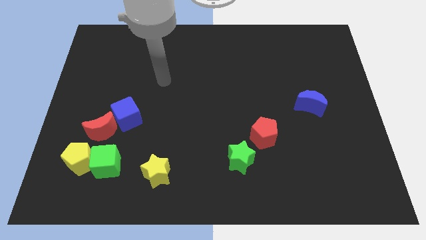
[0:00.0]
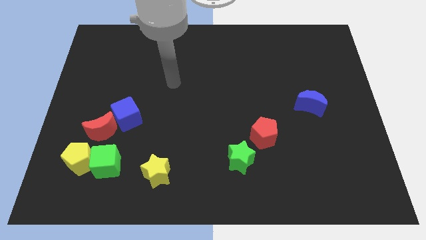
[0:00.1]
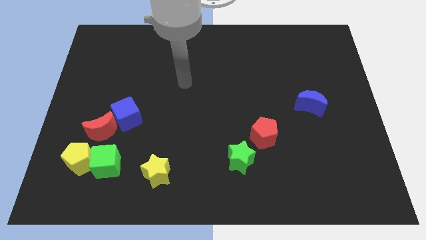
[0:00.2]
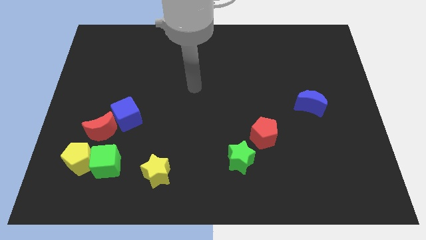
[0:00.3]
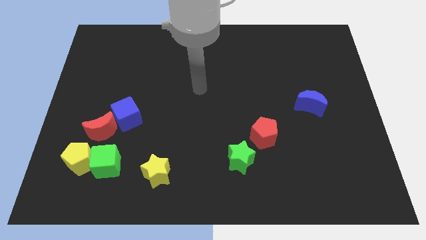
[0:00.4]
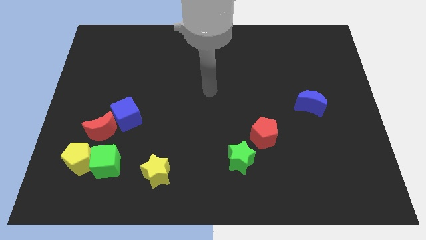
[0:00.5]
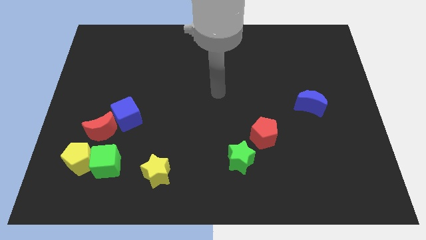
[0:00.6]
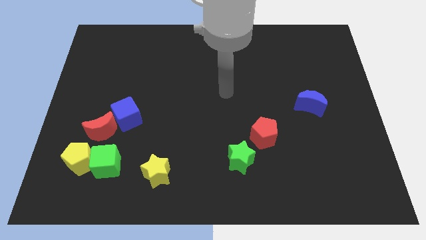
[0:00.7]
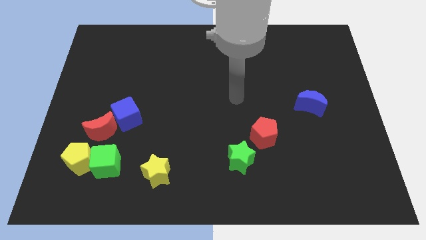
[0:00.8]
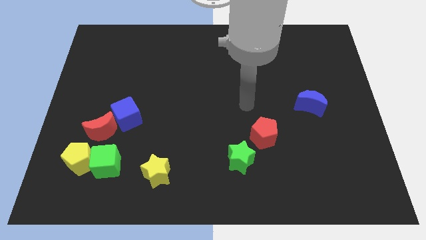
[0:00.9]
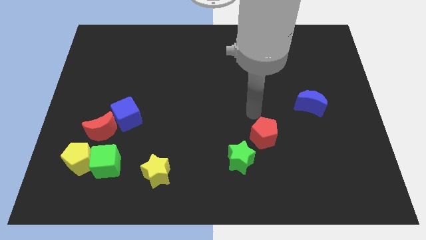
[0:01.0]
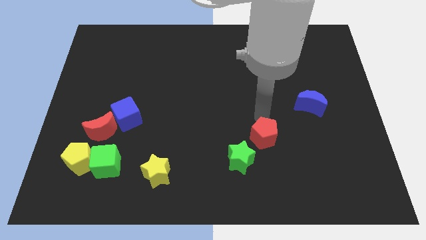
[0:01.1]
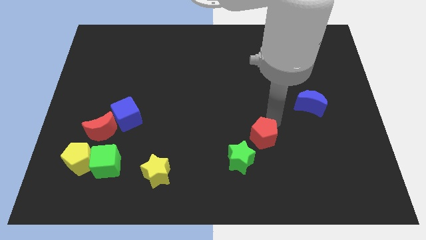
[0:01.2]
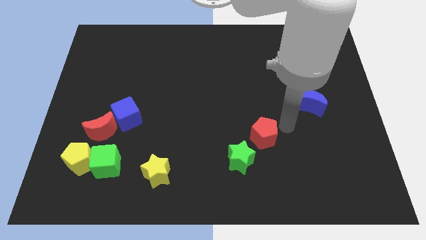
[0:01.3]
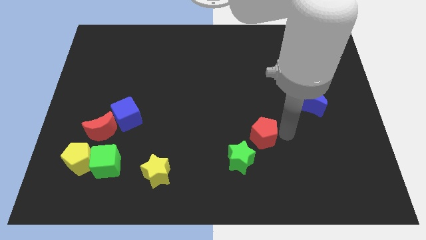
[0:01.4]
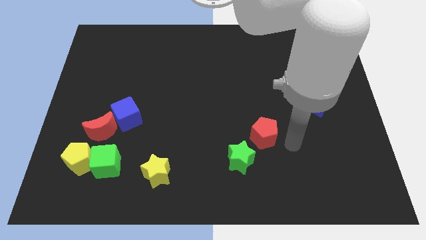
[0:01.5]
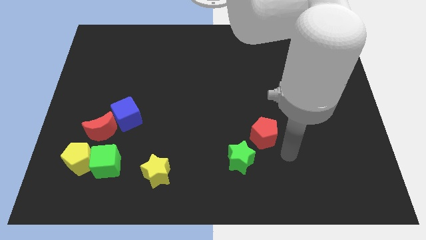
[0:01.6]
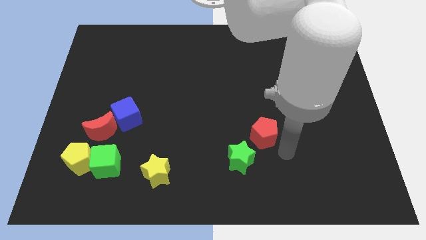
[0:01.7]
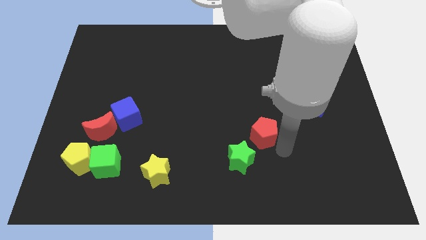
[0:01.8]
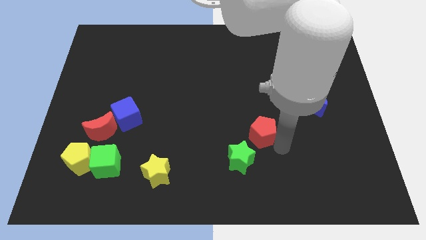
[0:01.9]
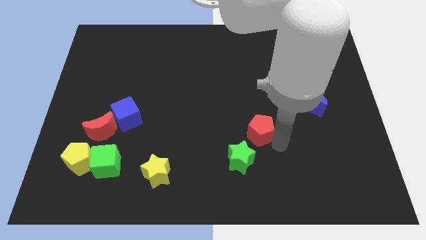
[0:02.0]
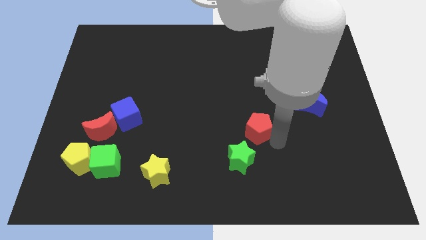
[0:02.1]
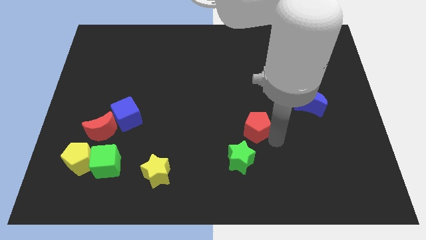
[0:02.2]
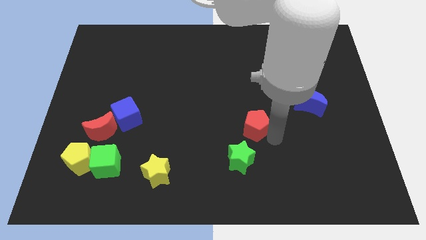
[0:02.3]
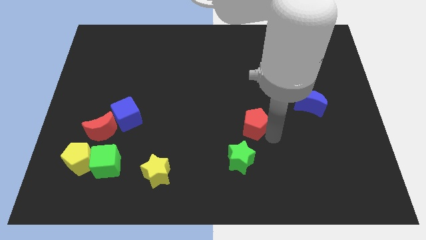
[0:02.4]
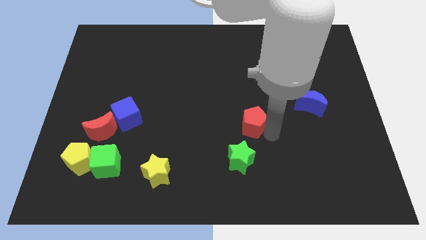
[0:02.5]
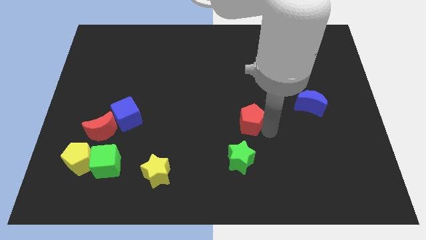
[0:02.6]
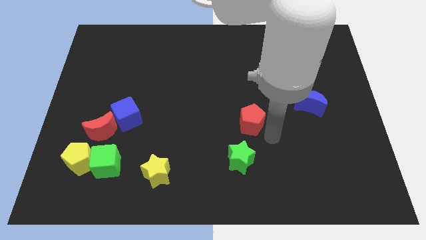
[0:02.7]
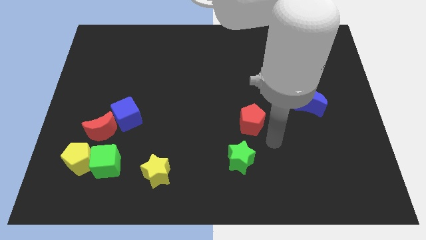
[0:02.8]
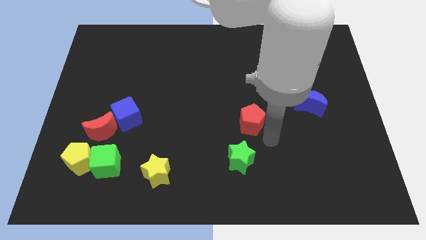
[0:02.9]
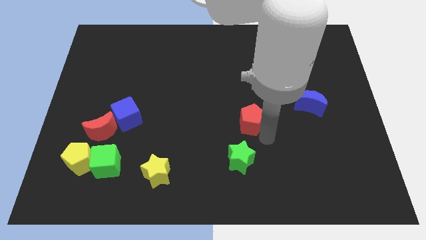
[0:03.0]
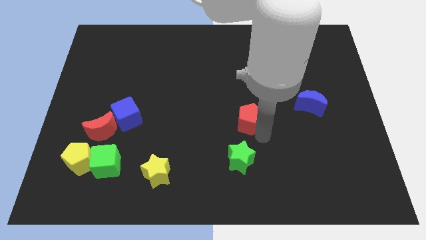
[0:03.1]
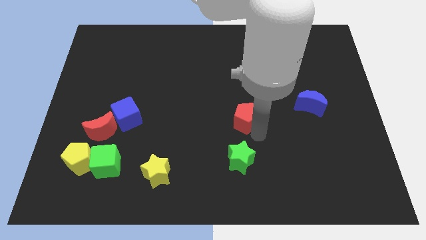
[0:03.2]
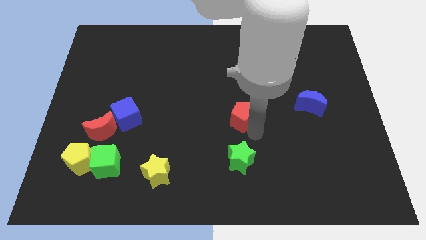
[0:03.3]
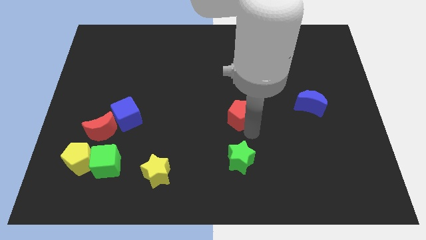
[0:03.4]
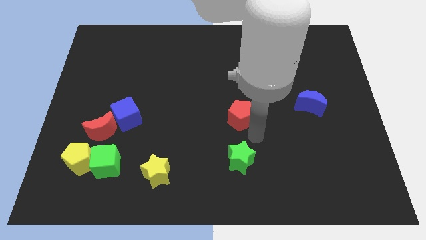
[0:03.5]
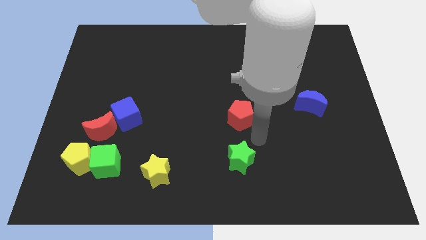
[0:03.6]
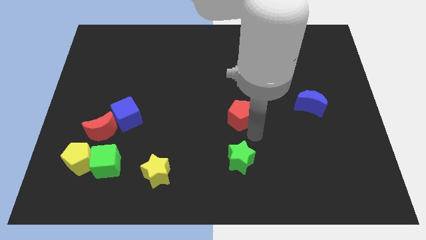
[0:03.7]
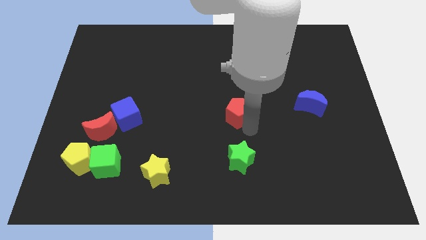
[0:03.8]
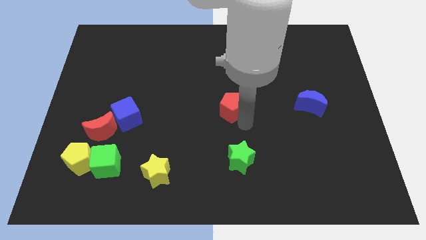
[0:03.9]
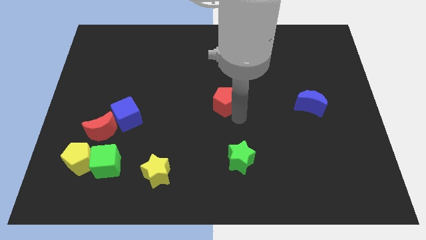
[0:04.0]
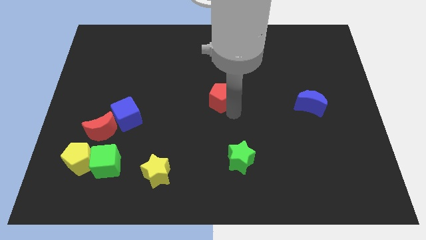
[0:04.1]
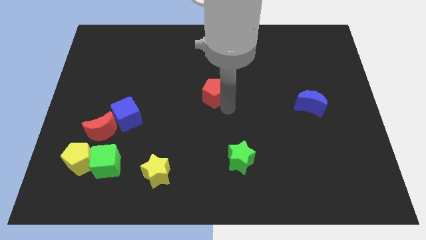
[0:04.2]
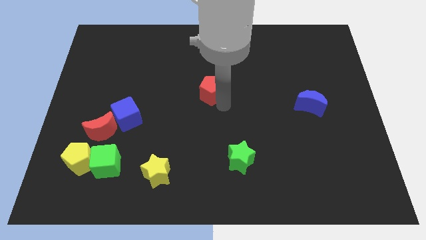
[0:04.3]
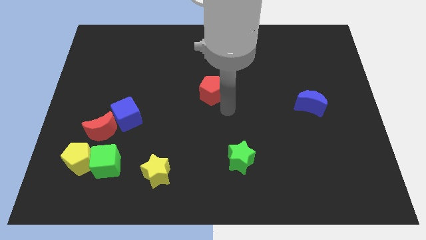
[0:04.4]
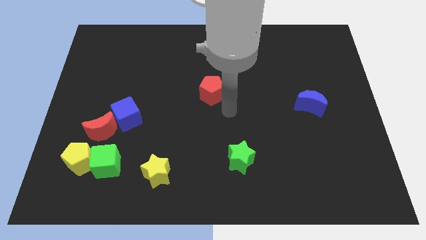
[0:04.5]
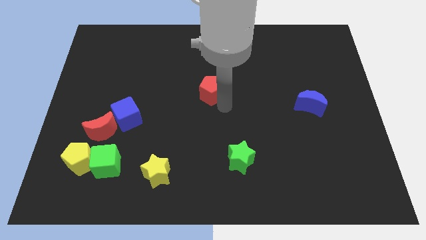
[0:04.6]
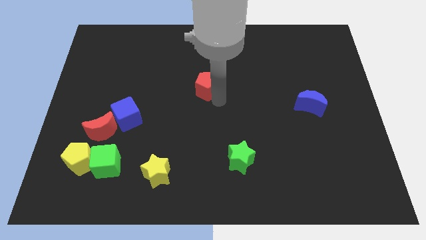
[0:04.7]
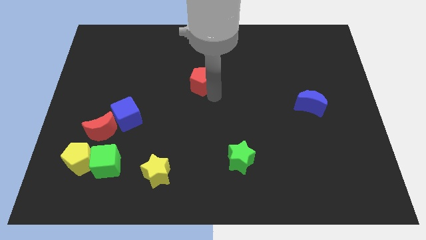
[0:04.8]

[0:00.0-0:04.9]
move the red pentagon diagonally up and to the left

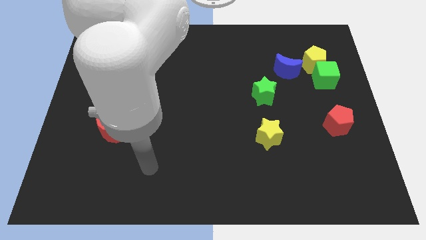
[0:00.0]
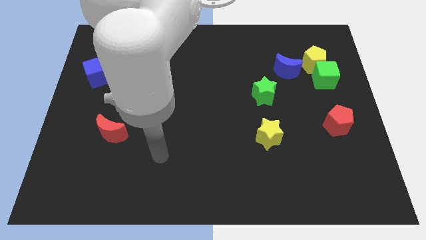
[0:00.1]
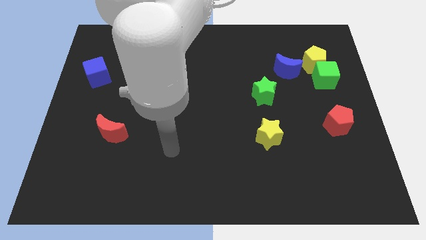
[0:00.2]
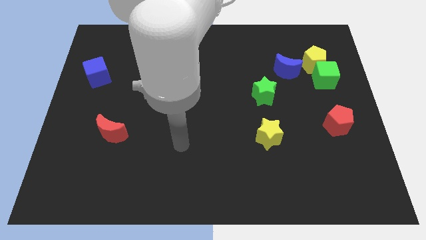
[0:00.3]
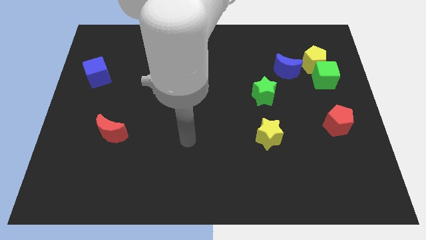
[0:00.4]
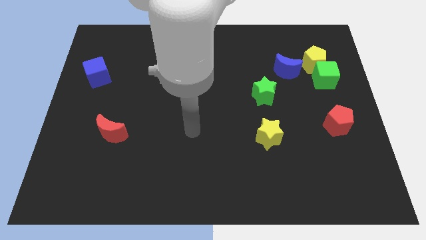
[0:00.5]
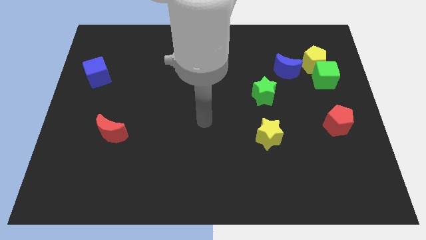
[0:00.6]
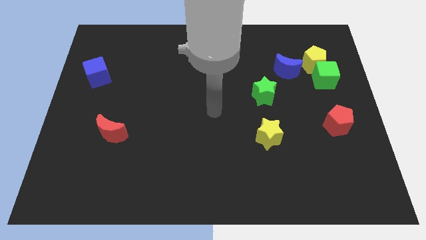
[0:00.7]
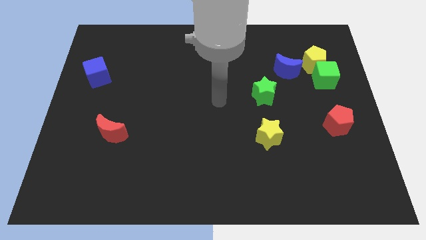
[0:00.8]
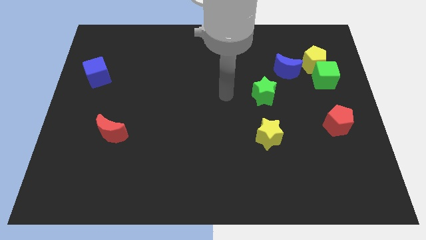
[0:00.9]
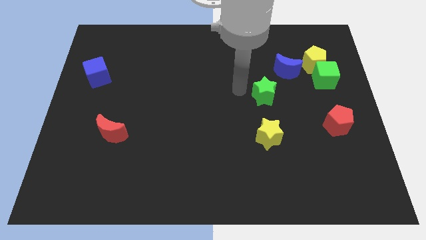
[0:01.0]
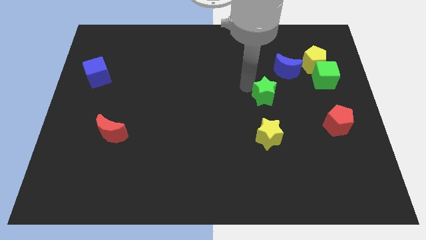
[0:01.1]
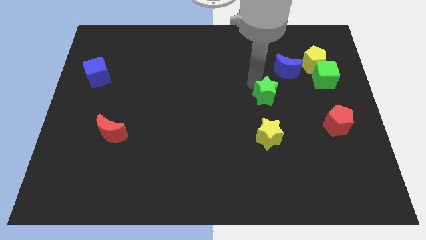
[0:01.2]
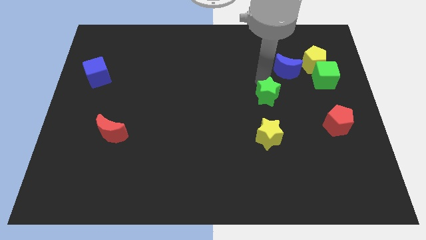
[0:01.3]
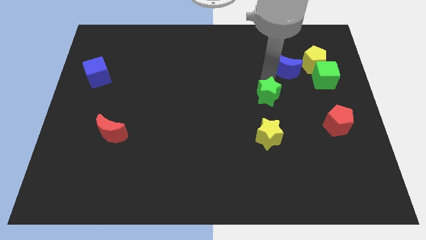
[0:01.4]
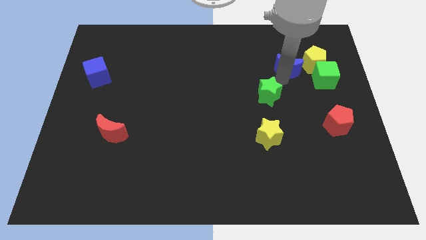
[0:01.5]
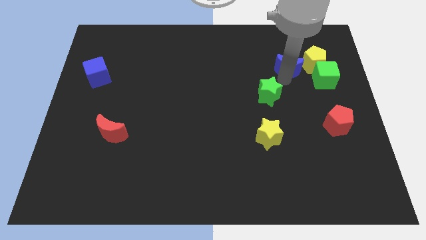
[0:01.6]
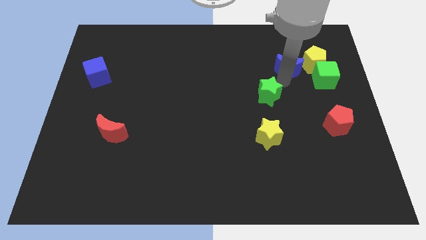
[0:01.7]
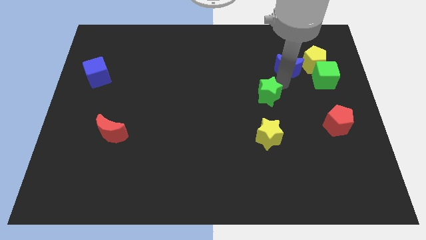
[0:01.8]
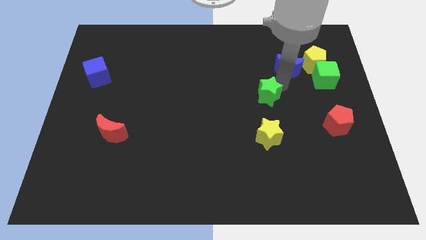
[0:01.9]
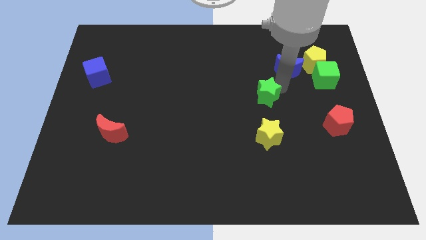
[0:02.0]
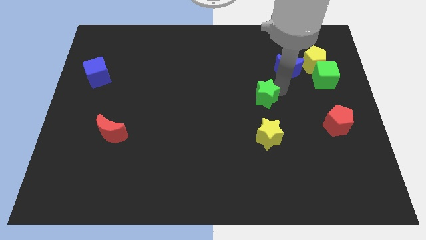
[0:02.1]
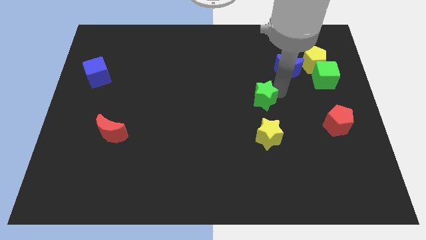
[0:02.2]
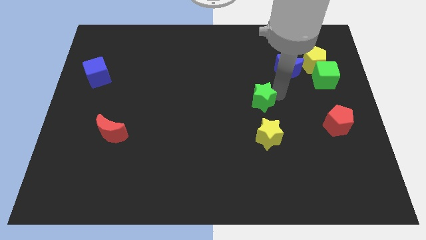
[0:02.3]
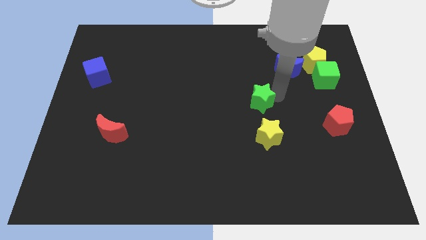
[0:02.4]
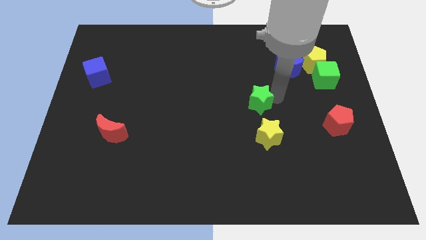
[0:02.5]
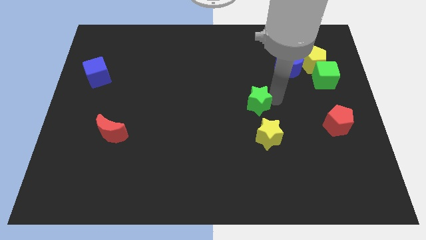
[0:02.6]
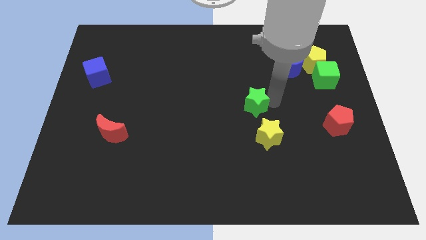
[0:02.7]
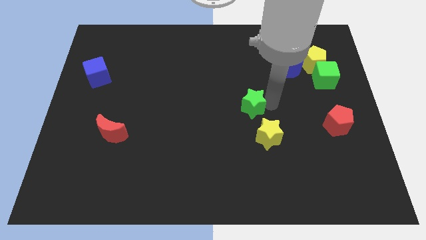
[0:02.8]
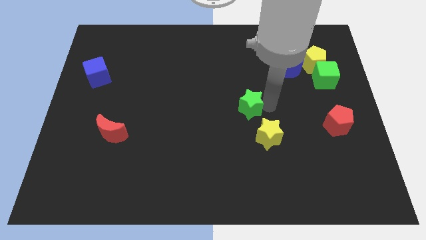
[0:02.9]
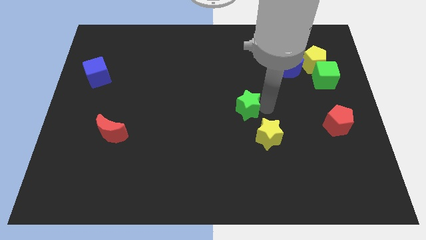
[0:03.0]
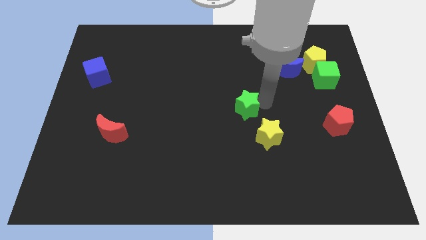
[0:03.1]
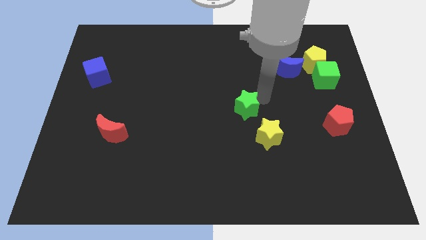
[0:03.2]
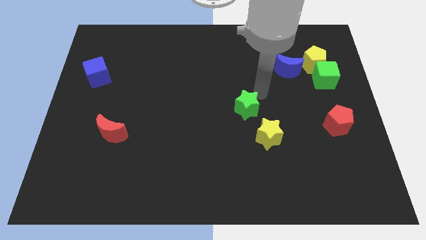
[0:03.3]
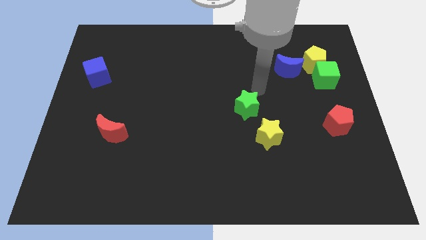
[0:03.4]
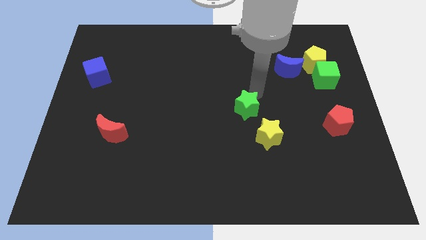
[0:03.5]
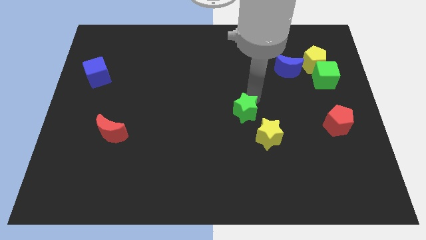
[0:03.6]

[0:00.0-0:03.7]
move the green star somewhat diagonally down and left
